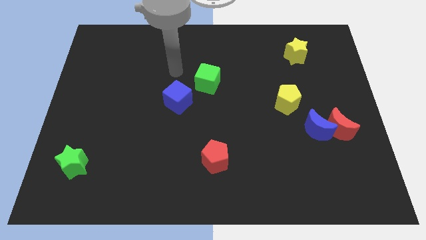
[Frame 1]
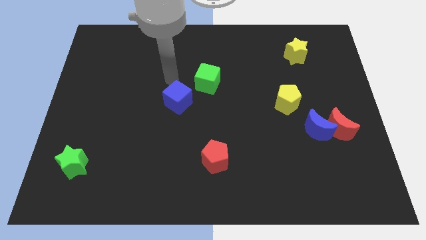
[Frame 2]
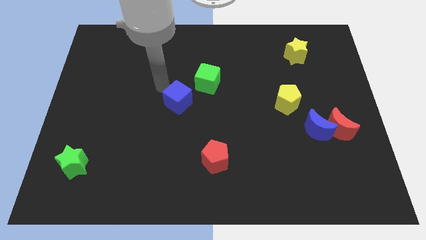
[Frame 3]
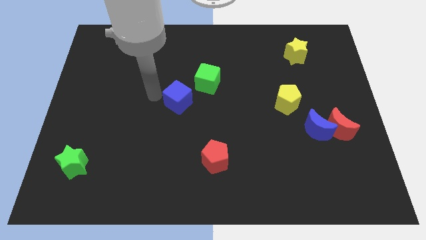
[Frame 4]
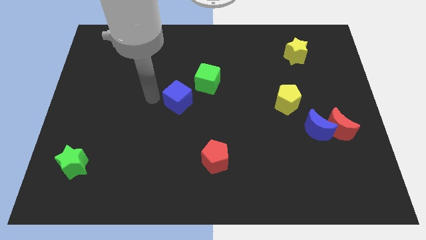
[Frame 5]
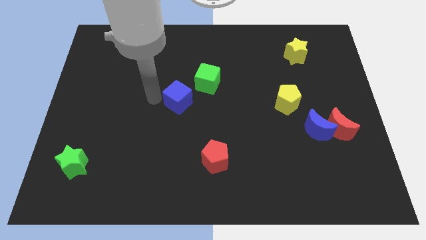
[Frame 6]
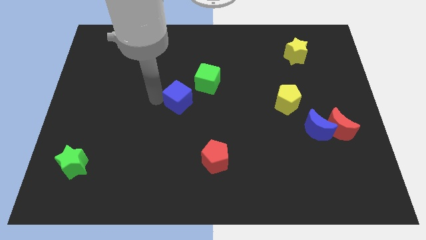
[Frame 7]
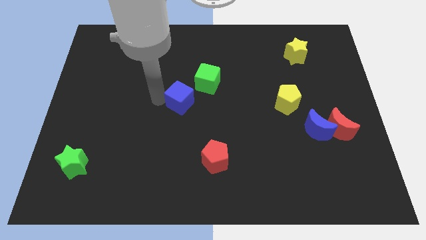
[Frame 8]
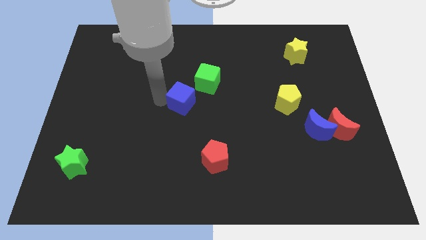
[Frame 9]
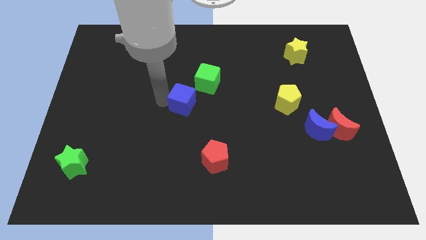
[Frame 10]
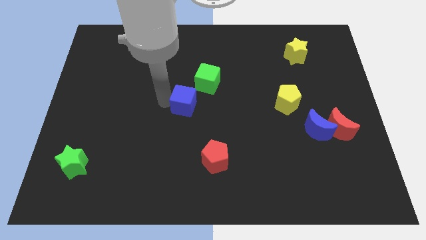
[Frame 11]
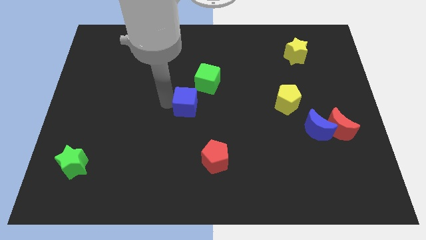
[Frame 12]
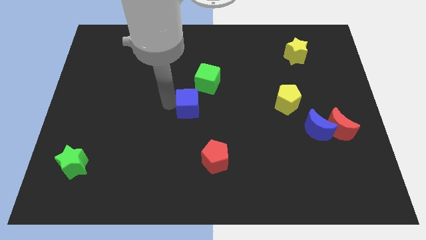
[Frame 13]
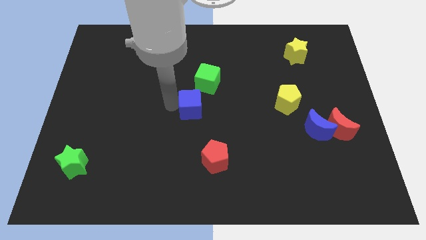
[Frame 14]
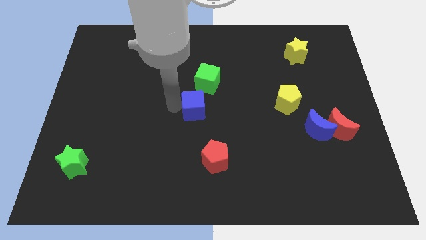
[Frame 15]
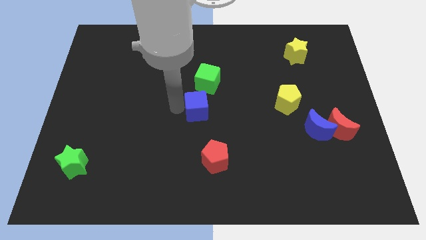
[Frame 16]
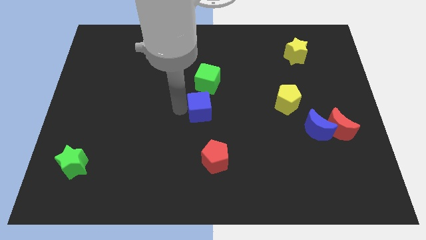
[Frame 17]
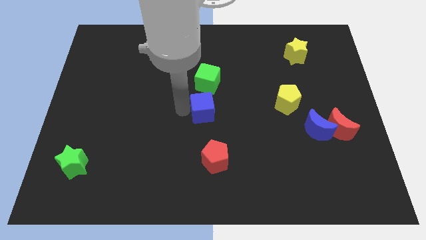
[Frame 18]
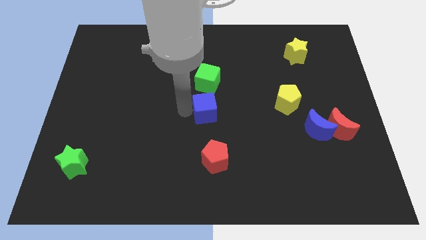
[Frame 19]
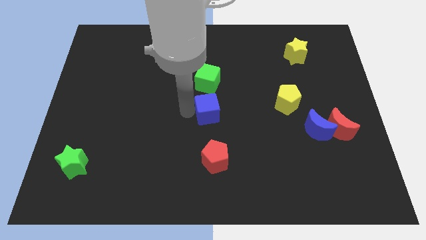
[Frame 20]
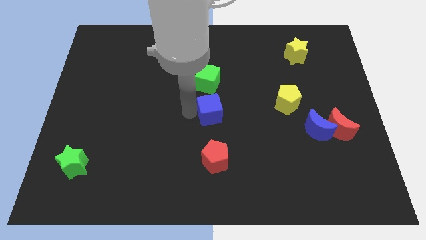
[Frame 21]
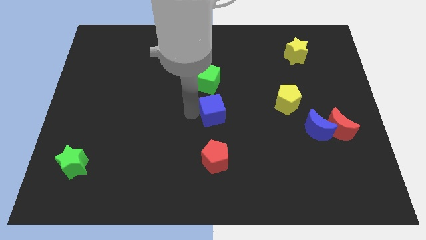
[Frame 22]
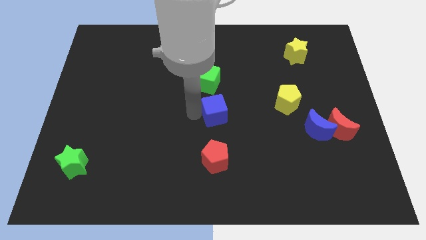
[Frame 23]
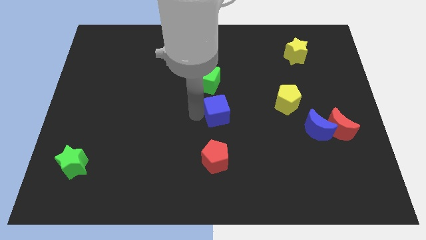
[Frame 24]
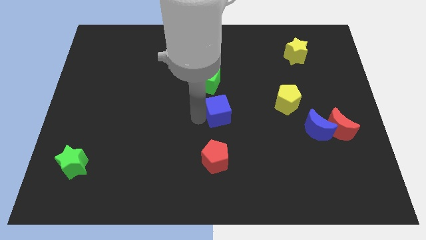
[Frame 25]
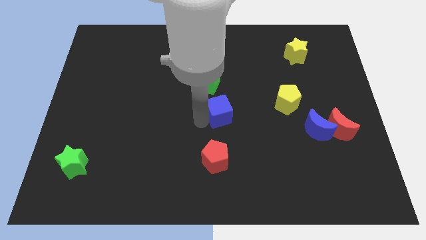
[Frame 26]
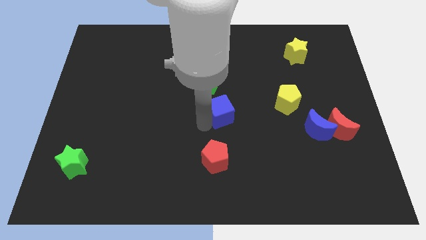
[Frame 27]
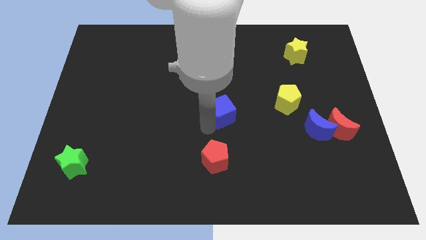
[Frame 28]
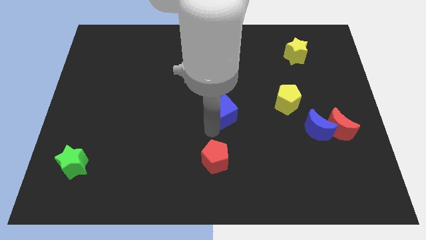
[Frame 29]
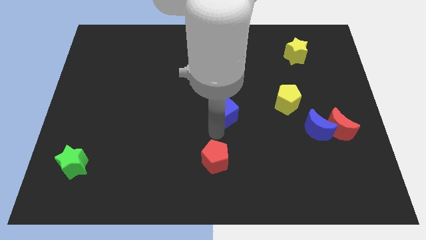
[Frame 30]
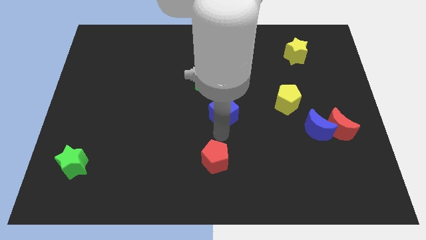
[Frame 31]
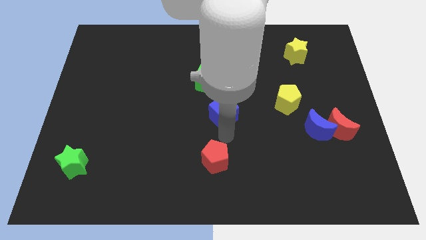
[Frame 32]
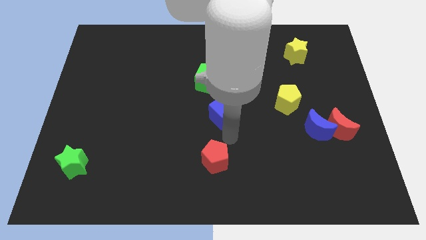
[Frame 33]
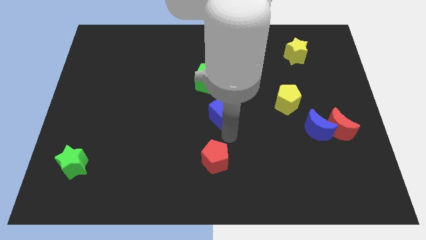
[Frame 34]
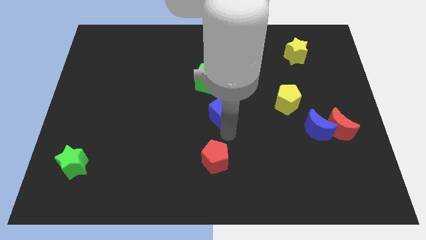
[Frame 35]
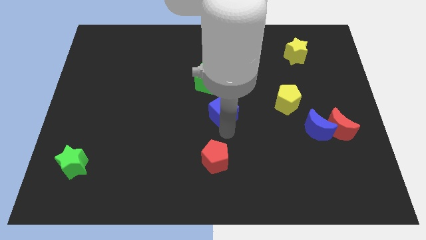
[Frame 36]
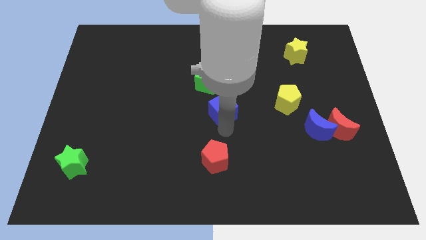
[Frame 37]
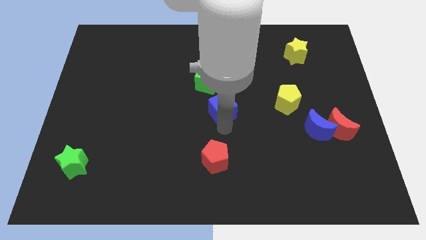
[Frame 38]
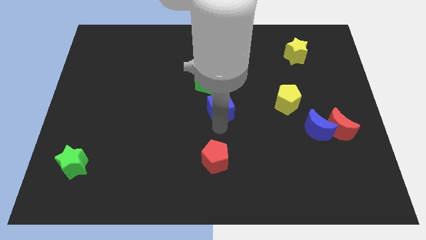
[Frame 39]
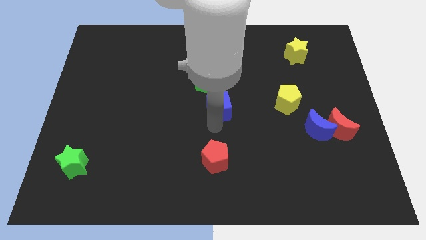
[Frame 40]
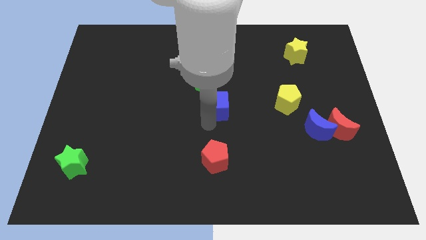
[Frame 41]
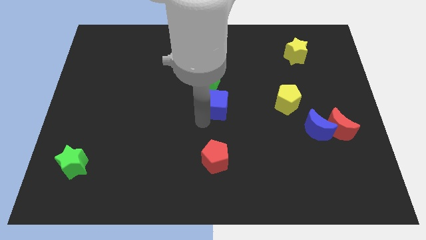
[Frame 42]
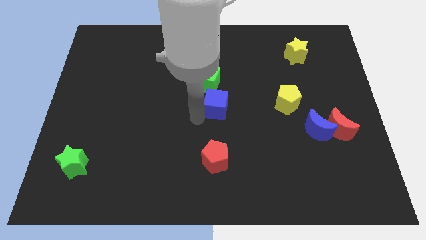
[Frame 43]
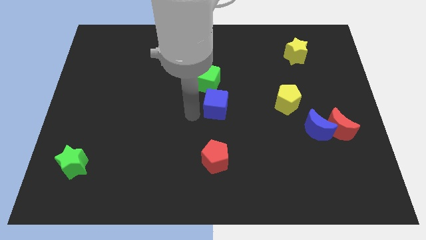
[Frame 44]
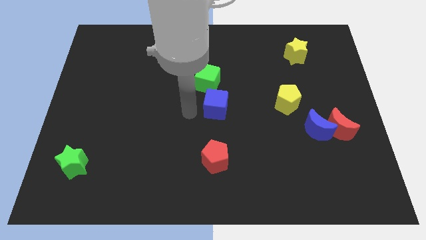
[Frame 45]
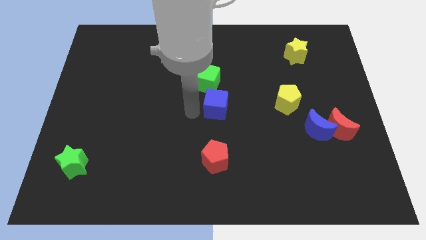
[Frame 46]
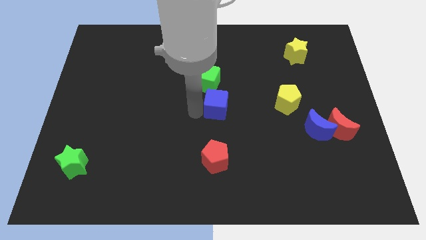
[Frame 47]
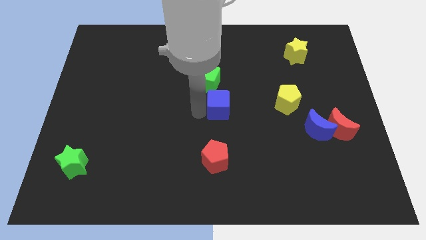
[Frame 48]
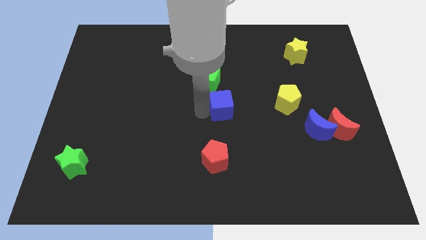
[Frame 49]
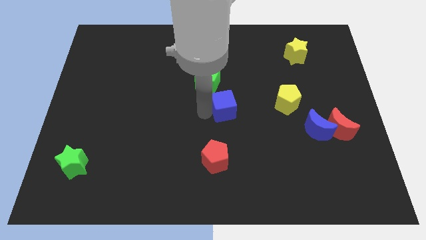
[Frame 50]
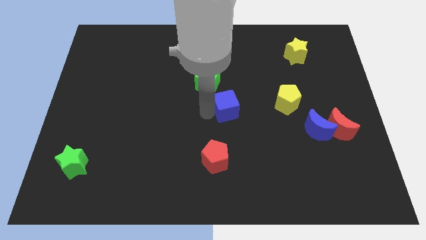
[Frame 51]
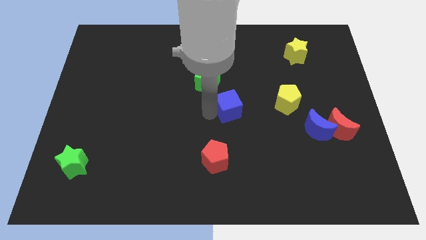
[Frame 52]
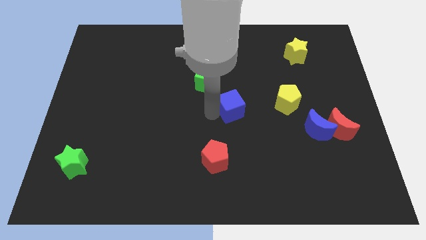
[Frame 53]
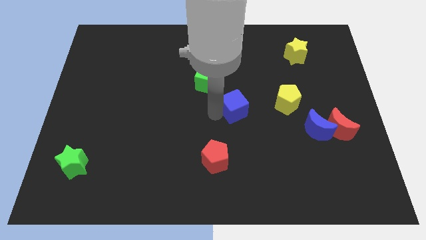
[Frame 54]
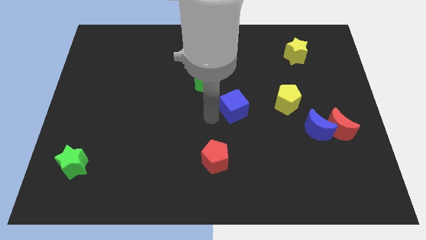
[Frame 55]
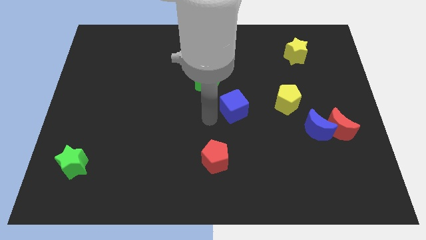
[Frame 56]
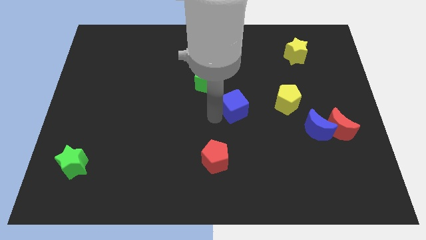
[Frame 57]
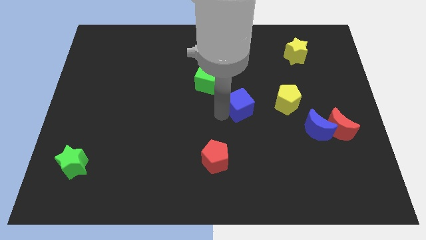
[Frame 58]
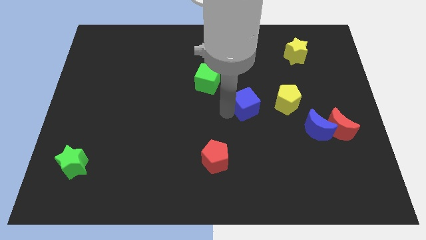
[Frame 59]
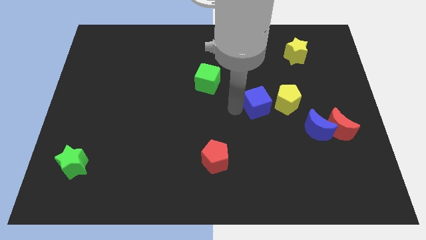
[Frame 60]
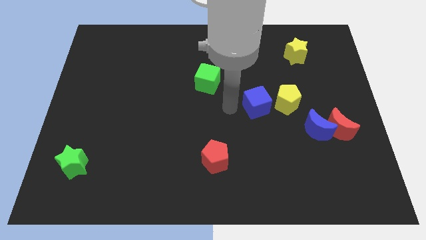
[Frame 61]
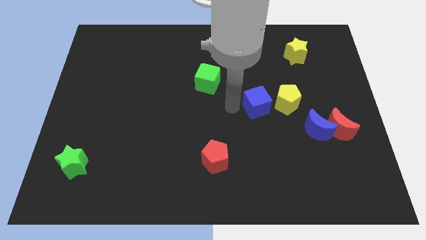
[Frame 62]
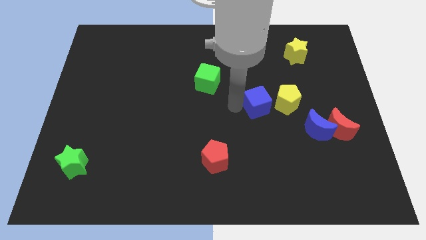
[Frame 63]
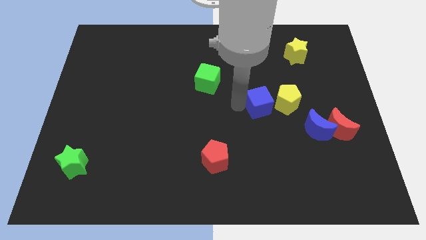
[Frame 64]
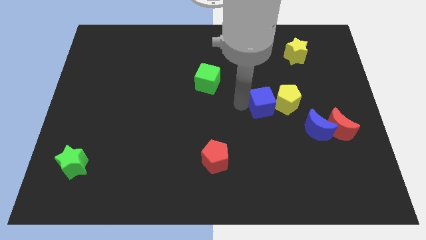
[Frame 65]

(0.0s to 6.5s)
slide the blue cube close to the yellow pentagon
